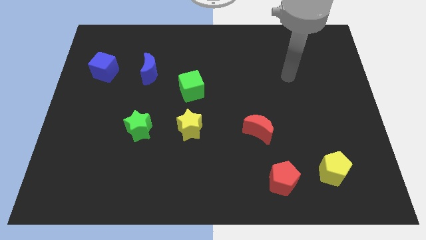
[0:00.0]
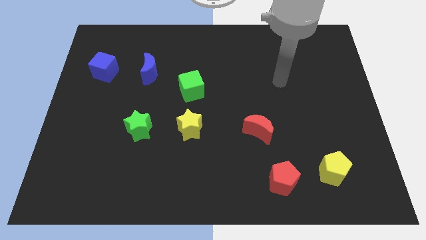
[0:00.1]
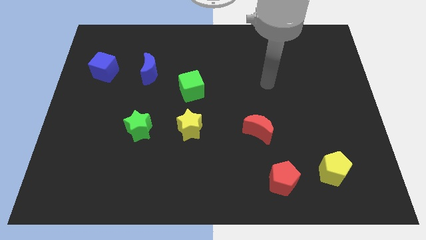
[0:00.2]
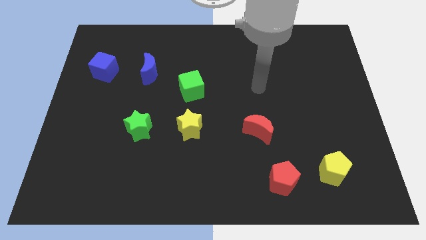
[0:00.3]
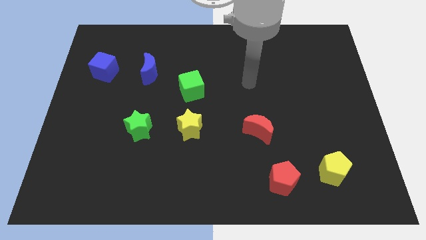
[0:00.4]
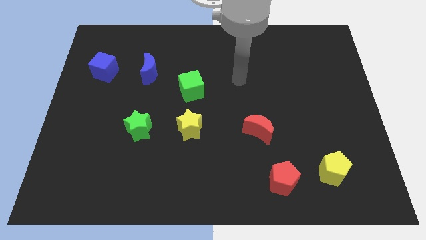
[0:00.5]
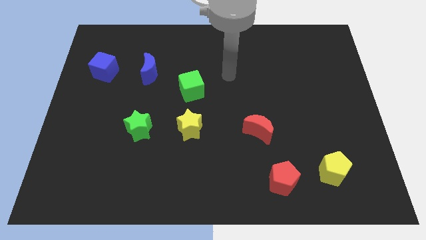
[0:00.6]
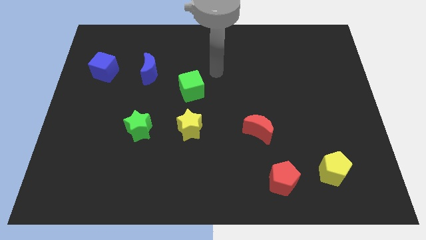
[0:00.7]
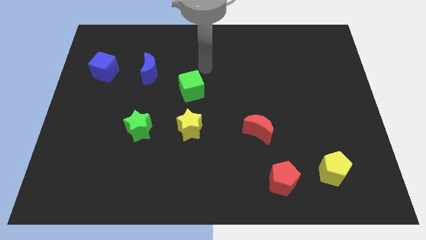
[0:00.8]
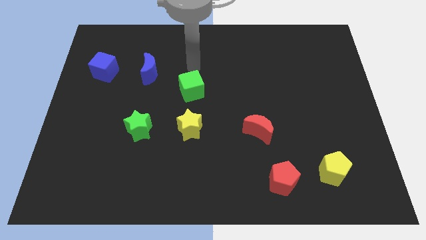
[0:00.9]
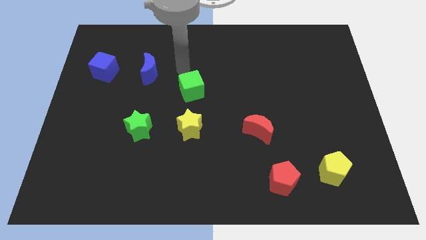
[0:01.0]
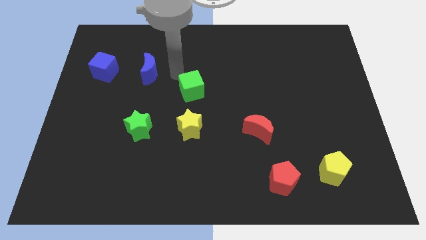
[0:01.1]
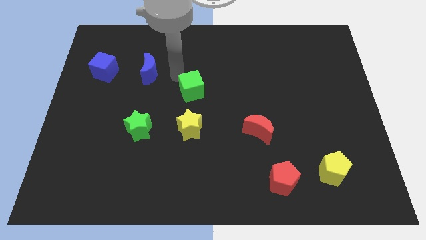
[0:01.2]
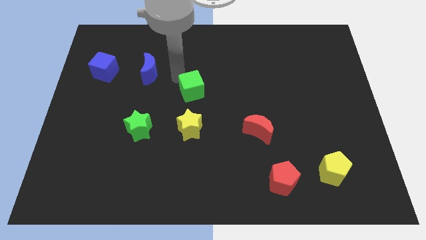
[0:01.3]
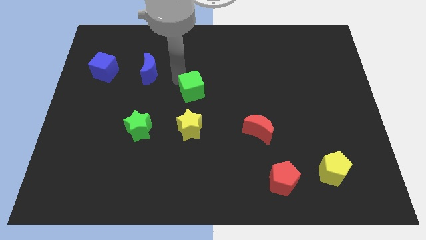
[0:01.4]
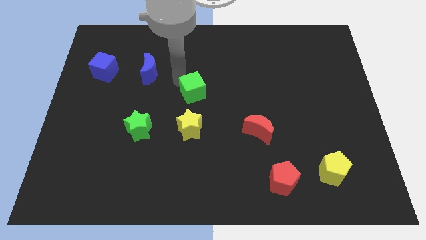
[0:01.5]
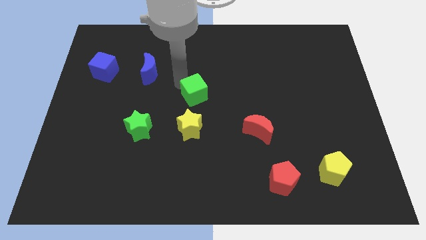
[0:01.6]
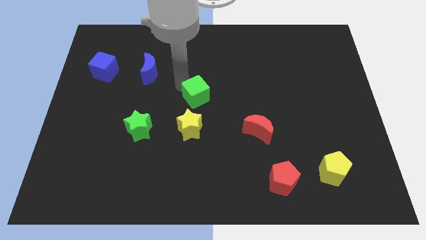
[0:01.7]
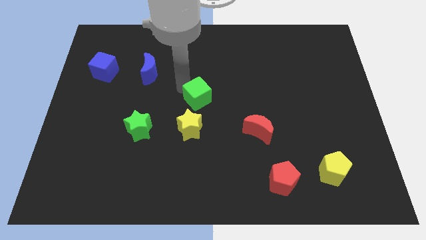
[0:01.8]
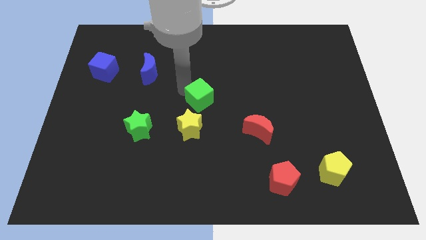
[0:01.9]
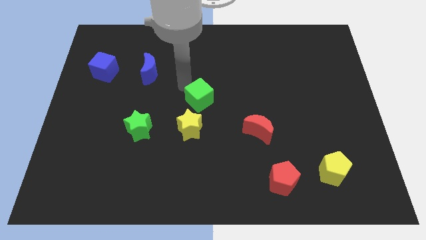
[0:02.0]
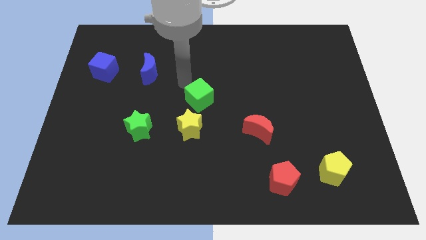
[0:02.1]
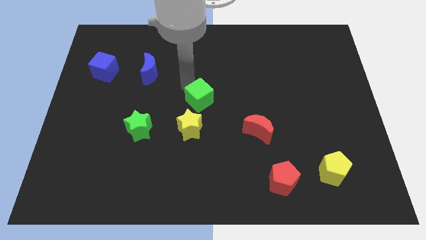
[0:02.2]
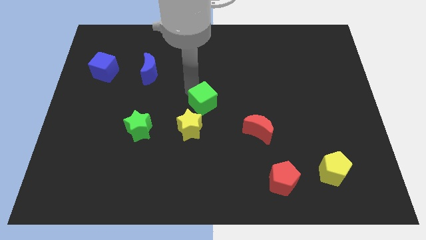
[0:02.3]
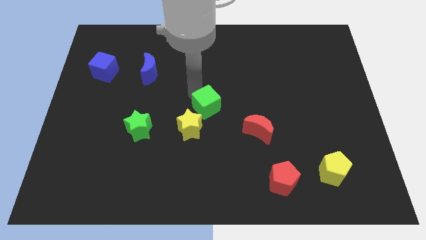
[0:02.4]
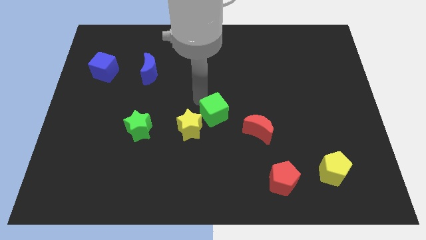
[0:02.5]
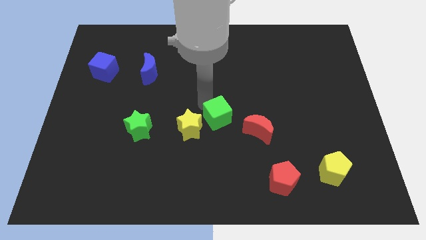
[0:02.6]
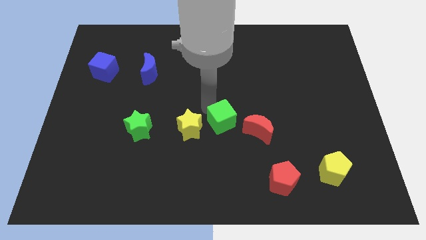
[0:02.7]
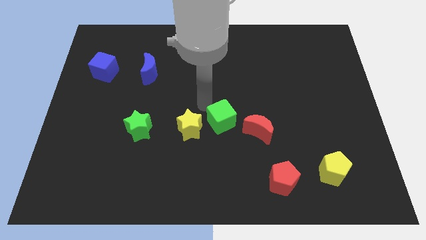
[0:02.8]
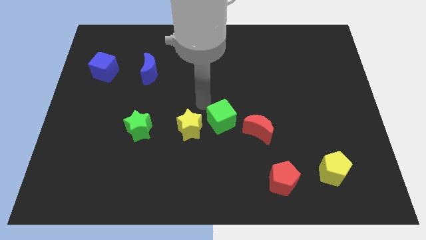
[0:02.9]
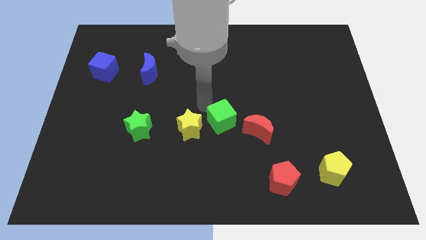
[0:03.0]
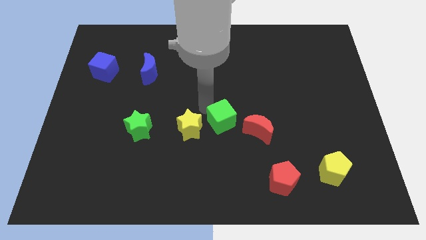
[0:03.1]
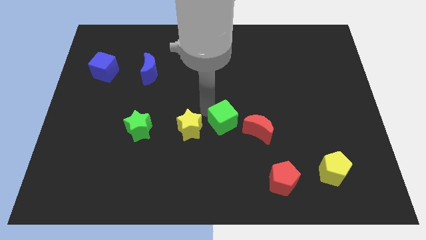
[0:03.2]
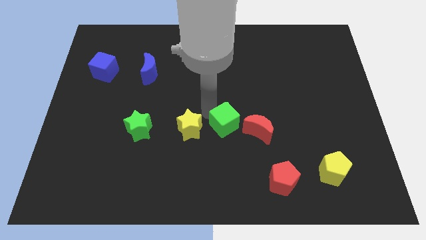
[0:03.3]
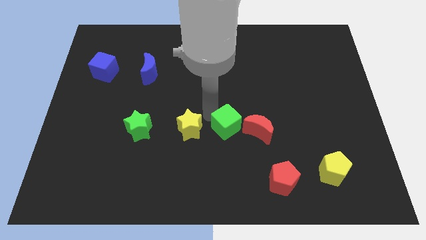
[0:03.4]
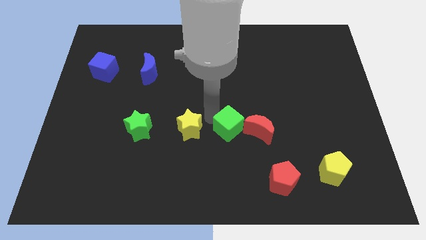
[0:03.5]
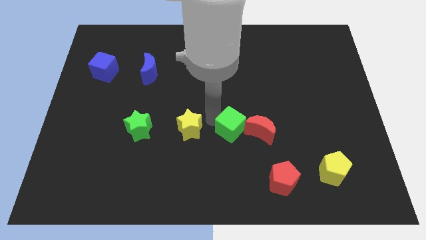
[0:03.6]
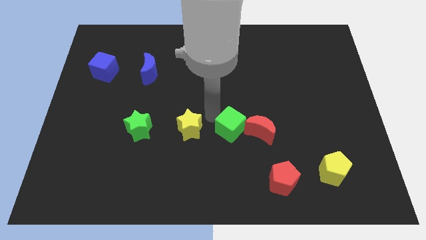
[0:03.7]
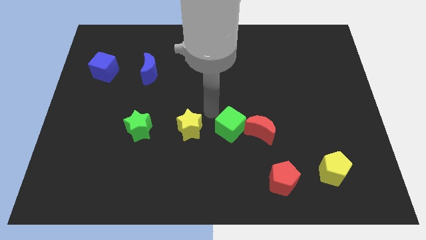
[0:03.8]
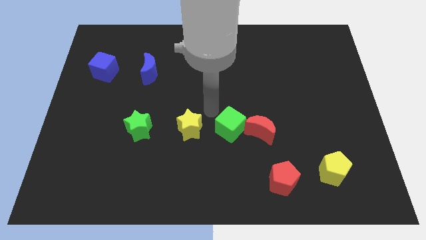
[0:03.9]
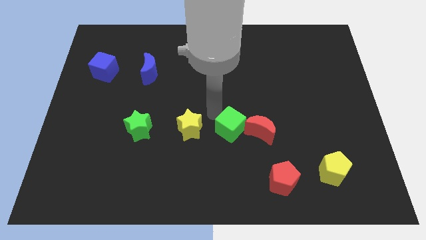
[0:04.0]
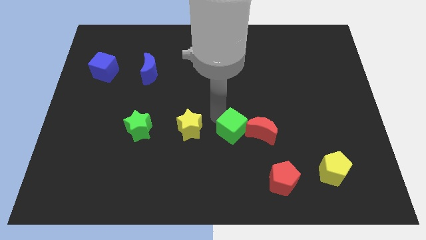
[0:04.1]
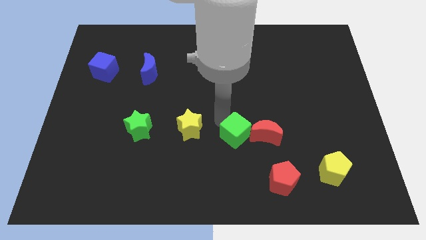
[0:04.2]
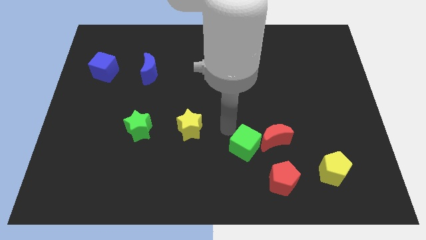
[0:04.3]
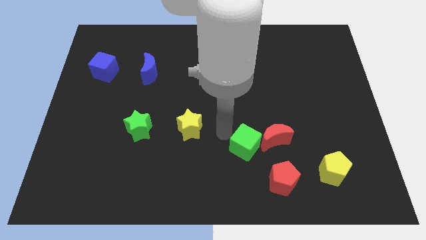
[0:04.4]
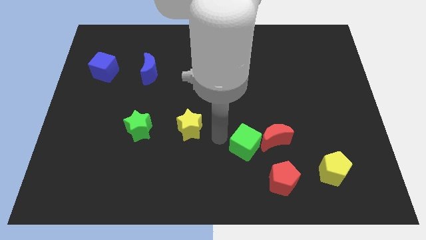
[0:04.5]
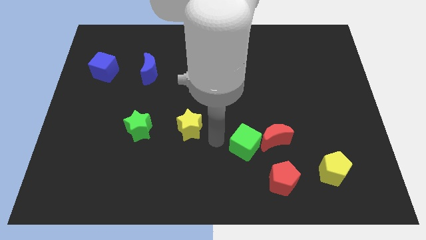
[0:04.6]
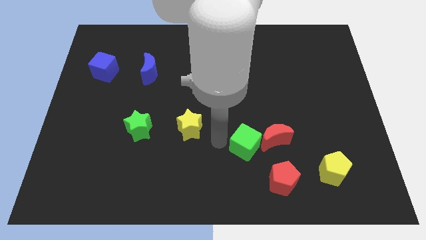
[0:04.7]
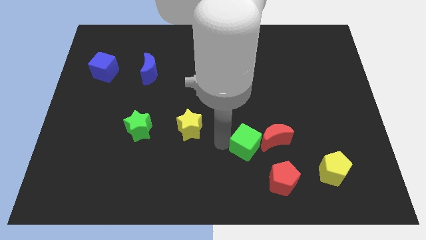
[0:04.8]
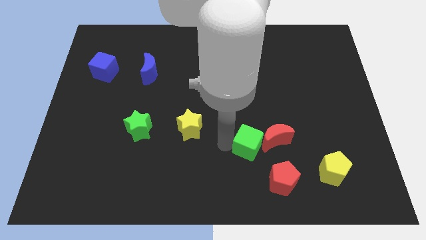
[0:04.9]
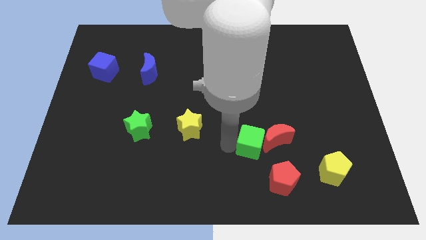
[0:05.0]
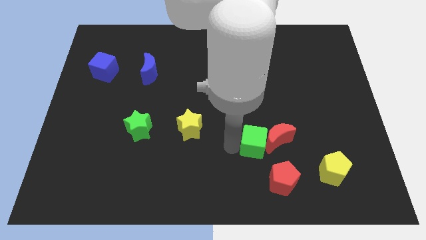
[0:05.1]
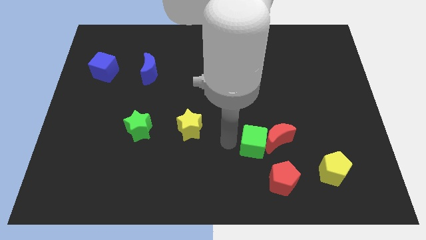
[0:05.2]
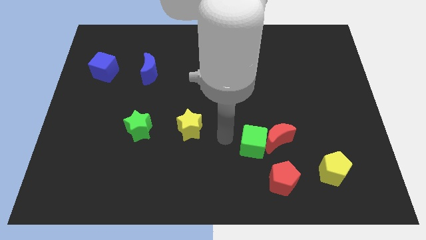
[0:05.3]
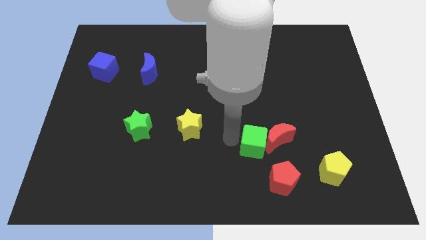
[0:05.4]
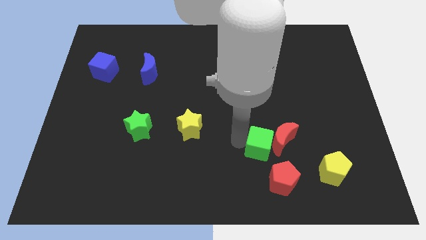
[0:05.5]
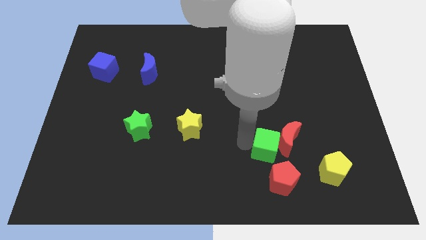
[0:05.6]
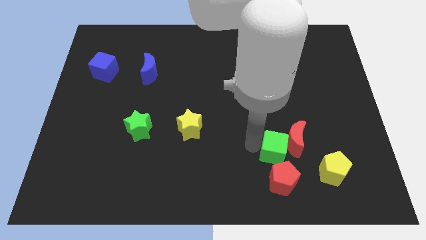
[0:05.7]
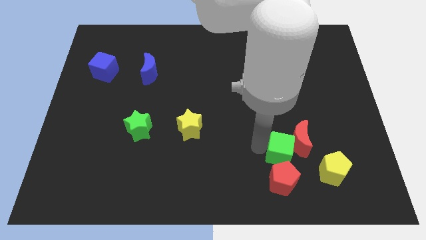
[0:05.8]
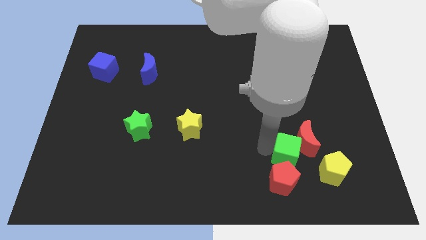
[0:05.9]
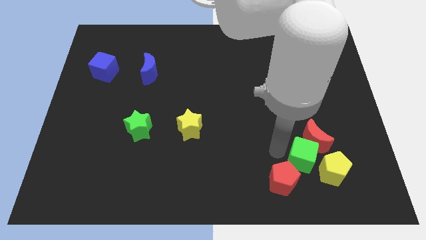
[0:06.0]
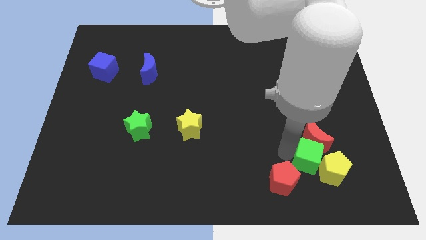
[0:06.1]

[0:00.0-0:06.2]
put the green cube next to the yellow pentagon
